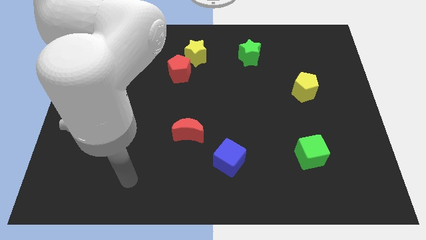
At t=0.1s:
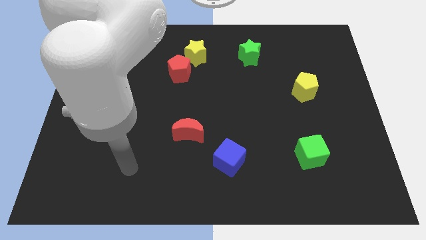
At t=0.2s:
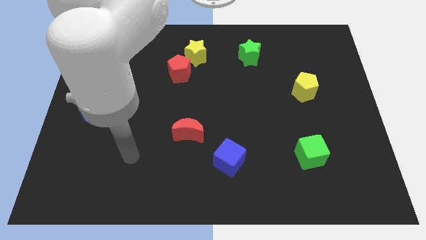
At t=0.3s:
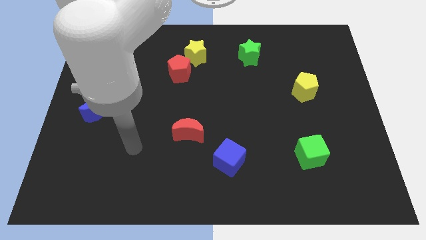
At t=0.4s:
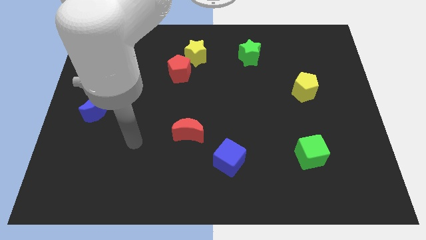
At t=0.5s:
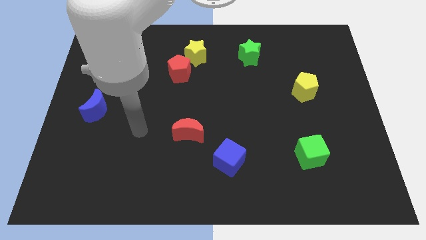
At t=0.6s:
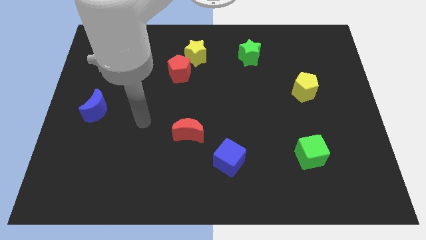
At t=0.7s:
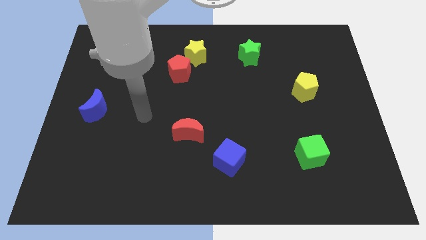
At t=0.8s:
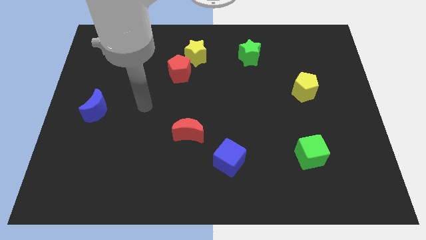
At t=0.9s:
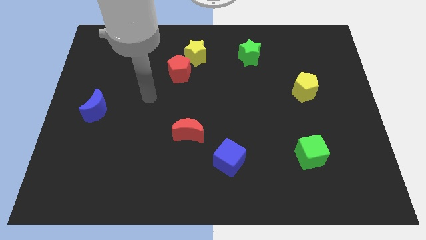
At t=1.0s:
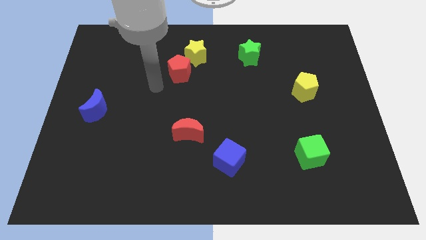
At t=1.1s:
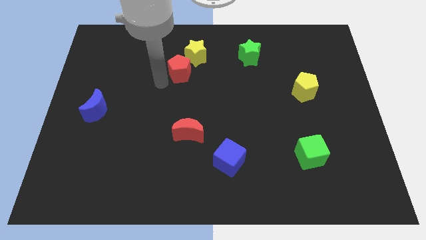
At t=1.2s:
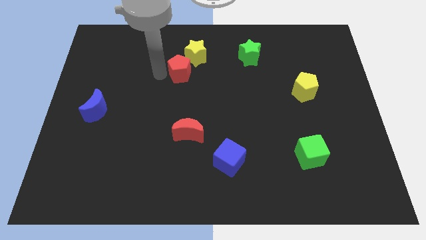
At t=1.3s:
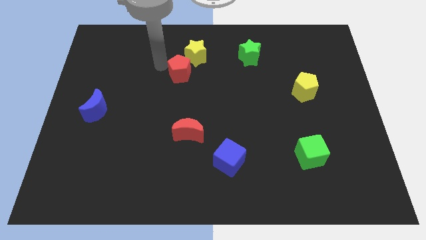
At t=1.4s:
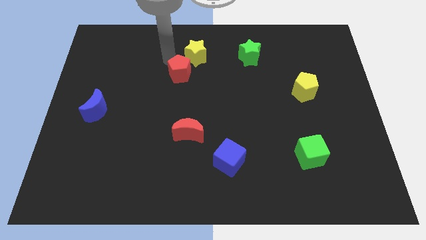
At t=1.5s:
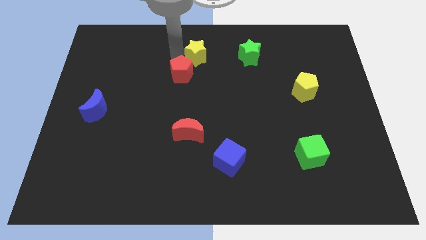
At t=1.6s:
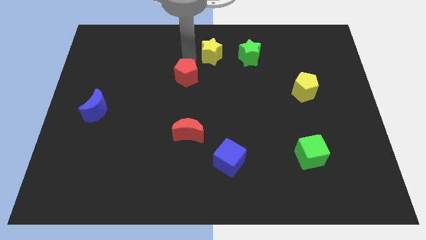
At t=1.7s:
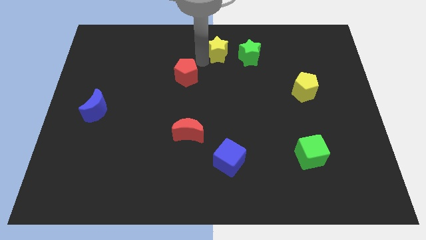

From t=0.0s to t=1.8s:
move the red pentagon away from the yellow star

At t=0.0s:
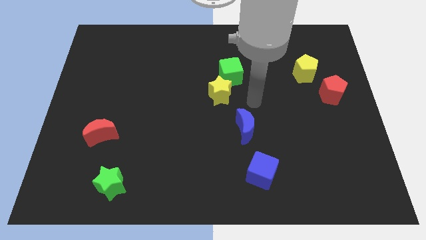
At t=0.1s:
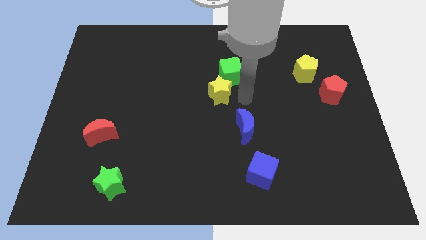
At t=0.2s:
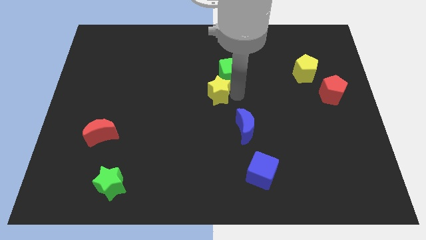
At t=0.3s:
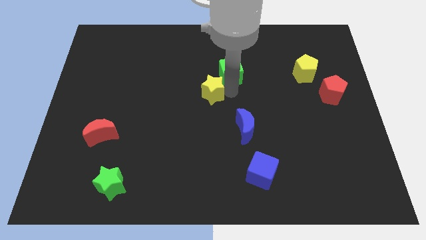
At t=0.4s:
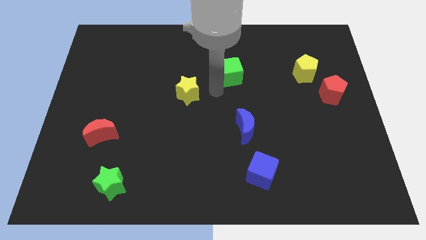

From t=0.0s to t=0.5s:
separate the green cube from the yellow star

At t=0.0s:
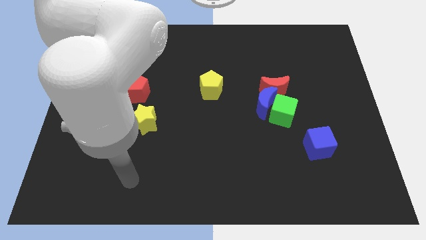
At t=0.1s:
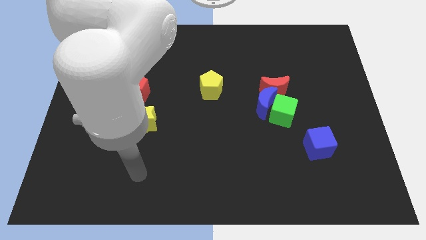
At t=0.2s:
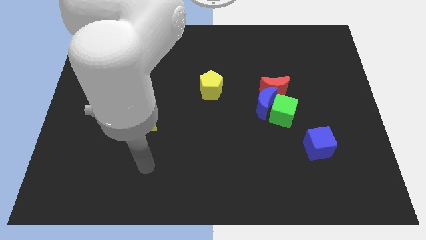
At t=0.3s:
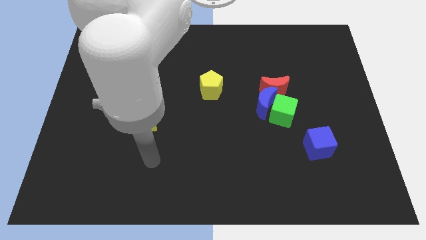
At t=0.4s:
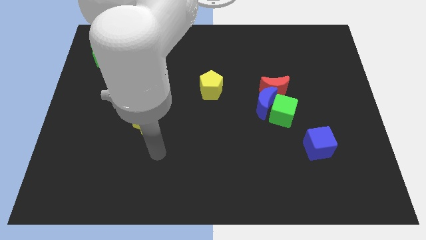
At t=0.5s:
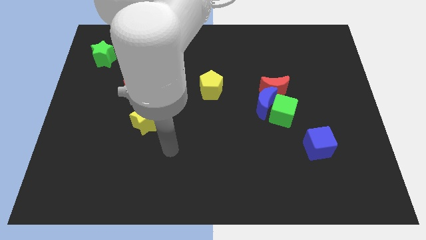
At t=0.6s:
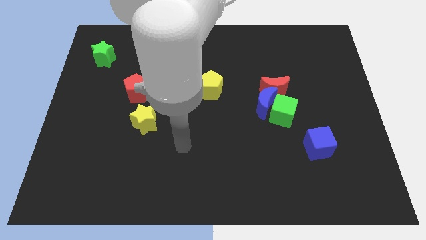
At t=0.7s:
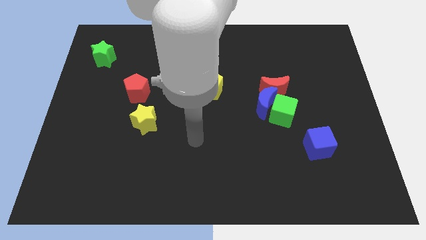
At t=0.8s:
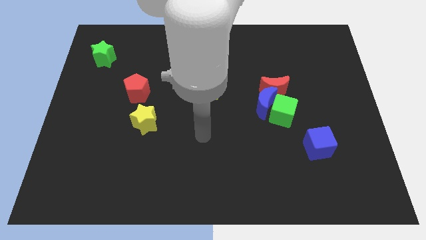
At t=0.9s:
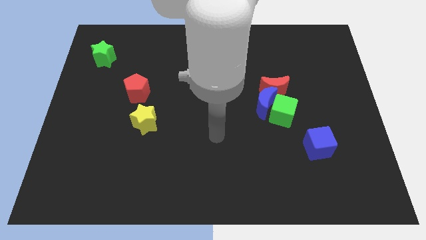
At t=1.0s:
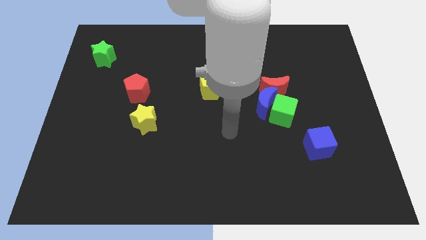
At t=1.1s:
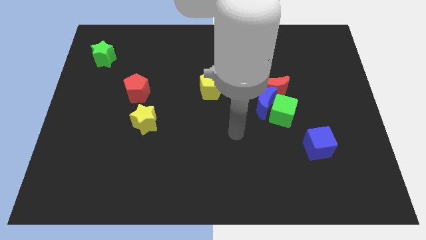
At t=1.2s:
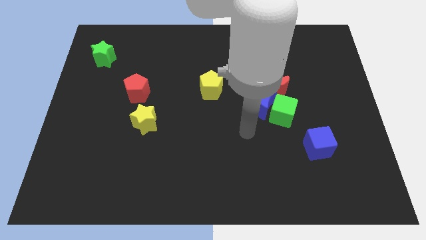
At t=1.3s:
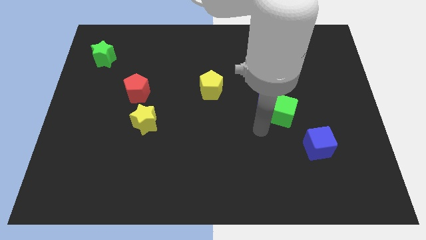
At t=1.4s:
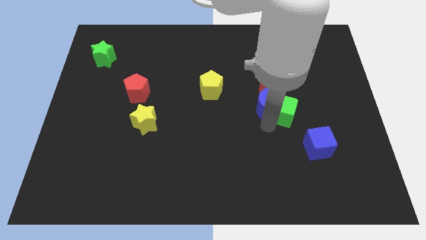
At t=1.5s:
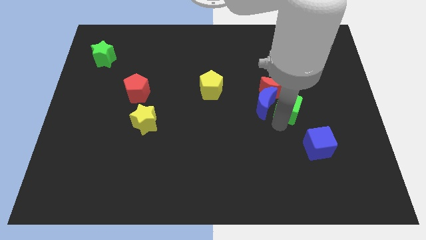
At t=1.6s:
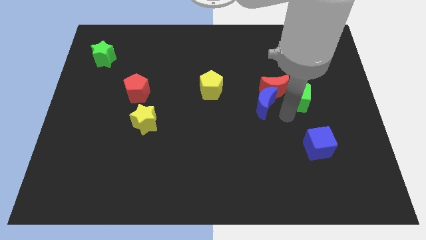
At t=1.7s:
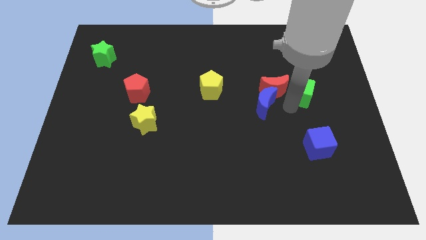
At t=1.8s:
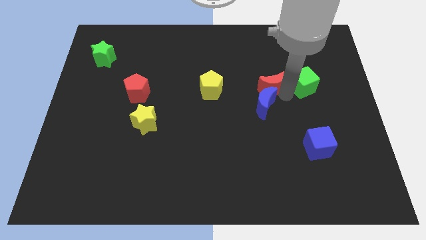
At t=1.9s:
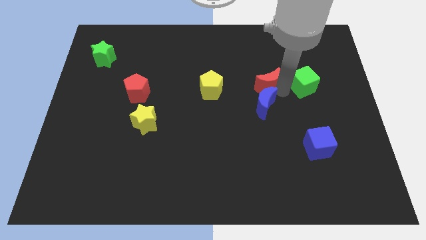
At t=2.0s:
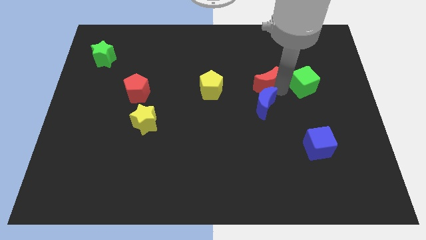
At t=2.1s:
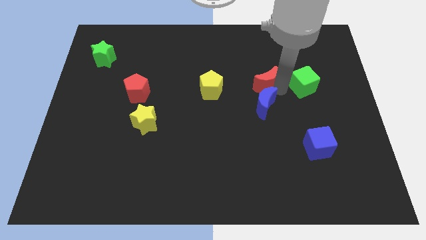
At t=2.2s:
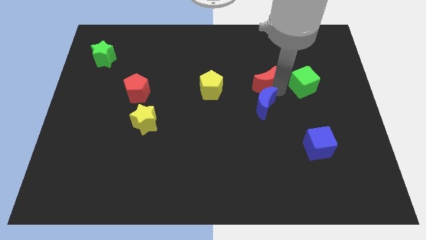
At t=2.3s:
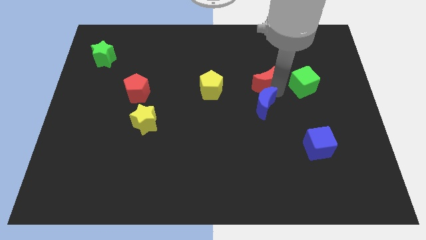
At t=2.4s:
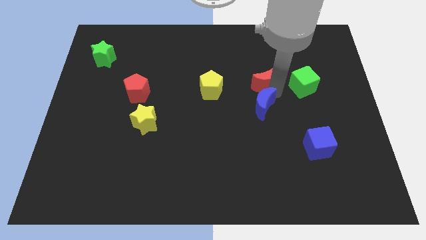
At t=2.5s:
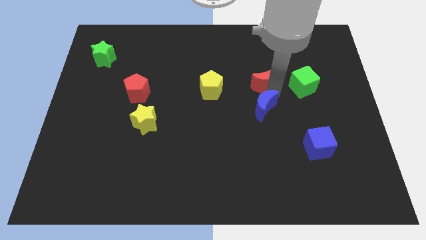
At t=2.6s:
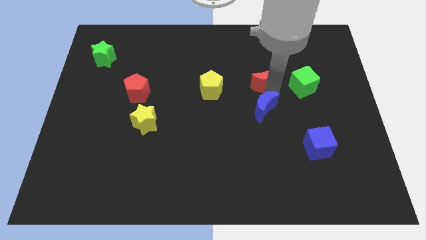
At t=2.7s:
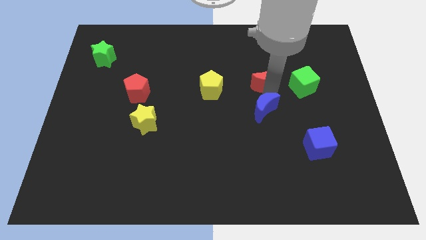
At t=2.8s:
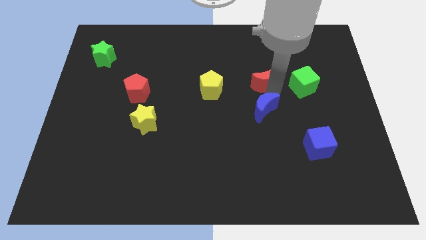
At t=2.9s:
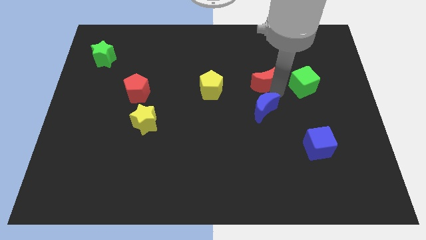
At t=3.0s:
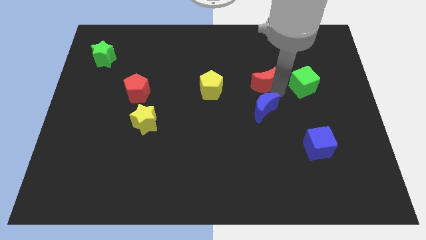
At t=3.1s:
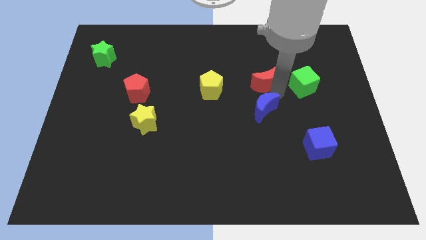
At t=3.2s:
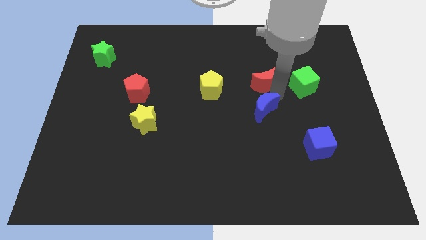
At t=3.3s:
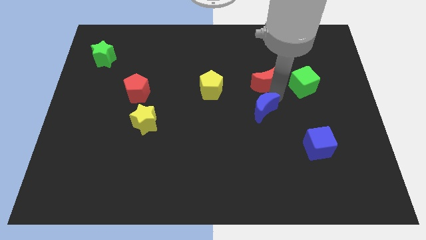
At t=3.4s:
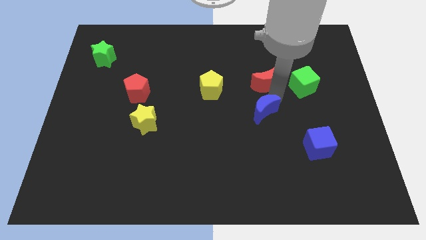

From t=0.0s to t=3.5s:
separate the blue moon from the green cube and red moon

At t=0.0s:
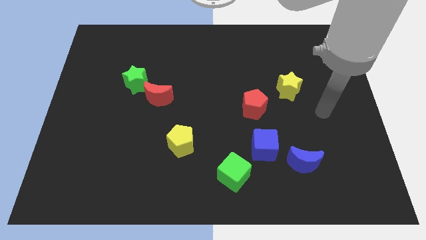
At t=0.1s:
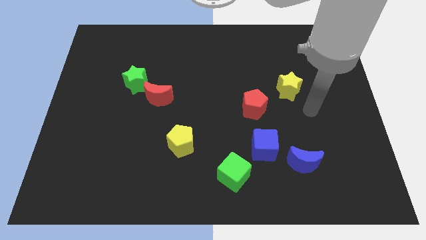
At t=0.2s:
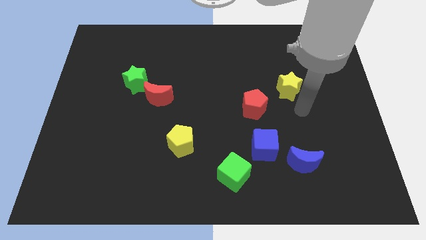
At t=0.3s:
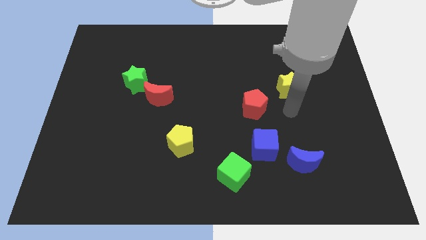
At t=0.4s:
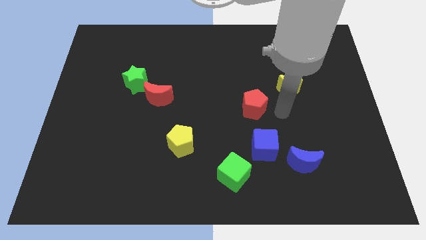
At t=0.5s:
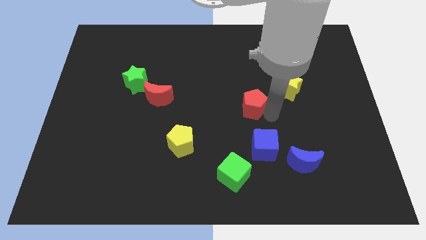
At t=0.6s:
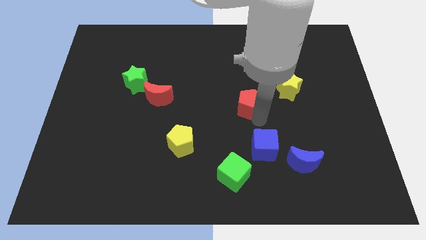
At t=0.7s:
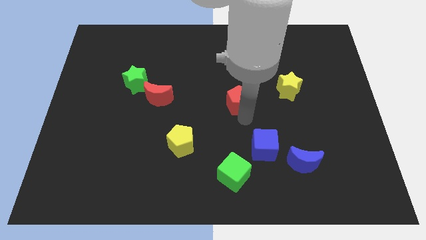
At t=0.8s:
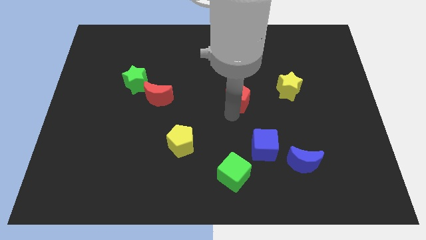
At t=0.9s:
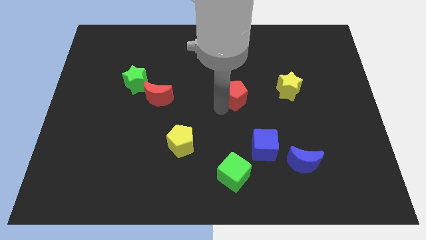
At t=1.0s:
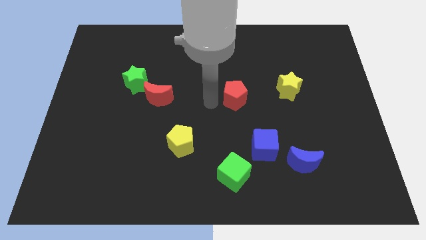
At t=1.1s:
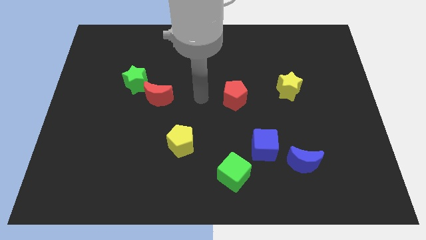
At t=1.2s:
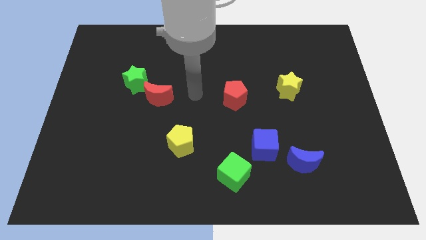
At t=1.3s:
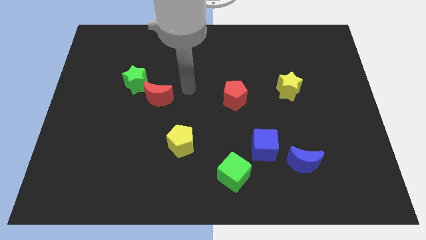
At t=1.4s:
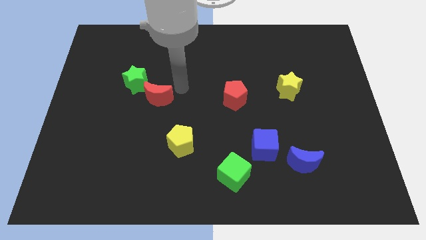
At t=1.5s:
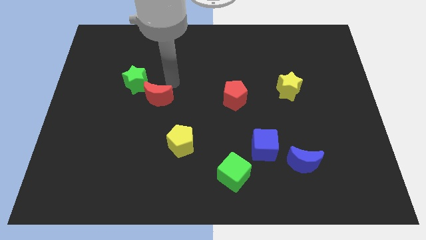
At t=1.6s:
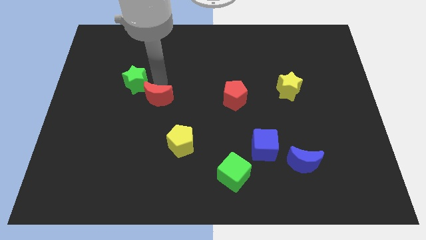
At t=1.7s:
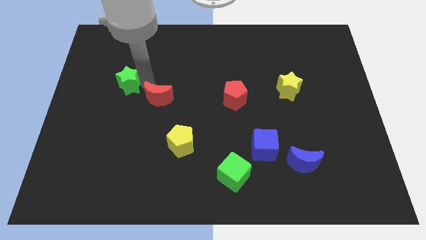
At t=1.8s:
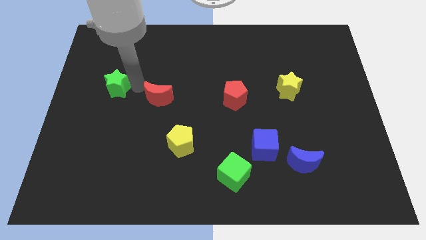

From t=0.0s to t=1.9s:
move the red moon away from the green star

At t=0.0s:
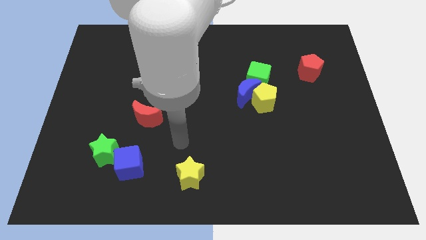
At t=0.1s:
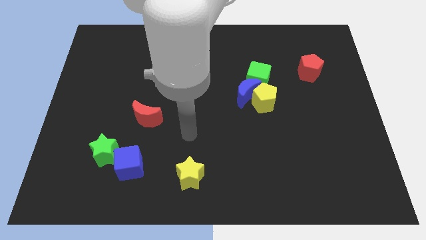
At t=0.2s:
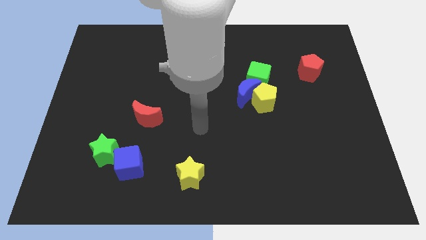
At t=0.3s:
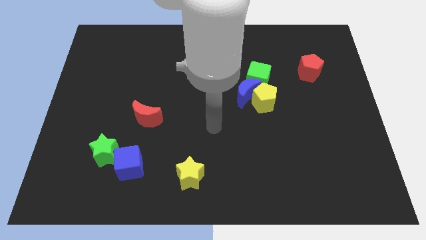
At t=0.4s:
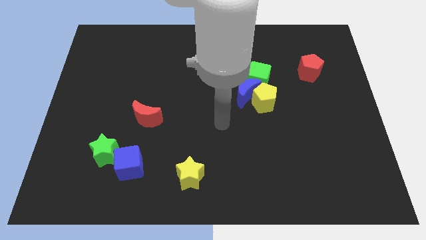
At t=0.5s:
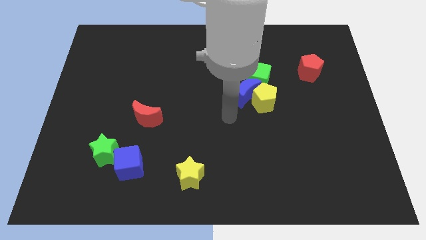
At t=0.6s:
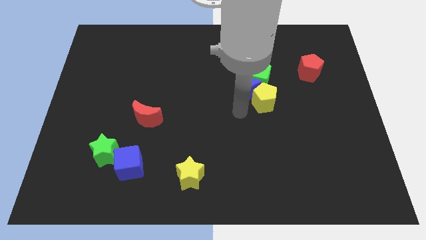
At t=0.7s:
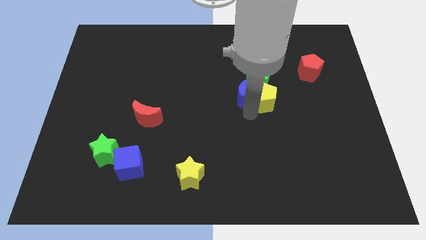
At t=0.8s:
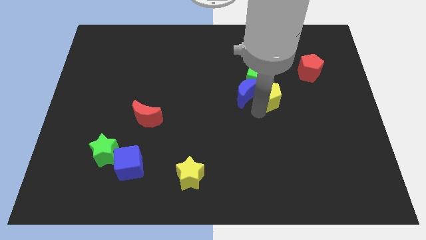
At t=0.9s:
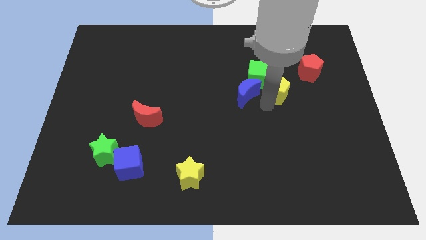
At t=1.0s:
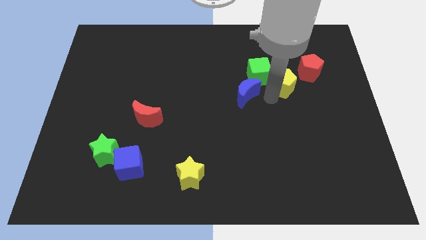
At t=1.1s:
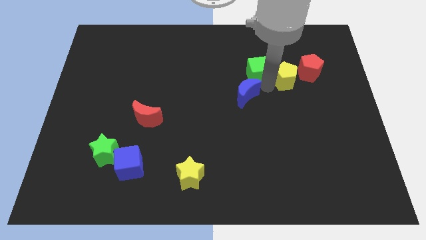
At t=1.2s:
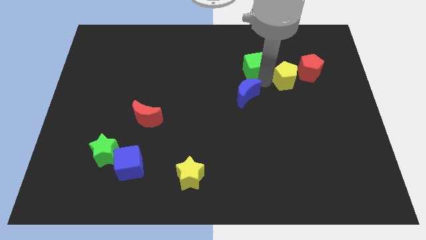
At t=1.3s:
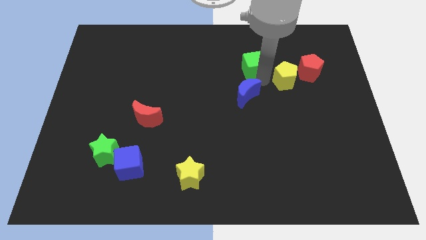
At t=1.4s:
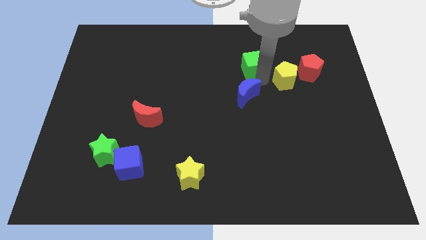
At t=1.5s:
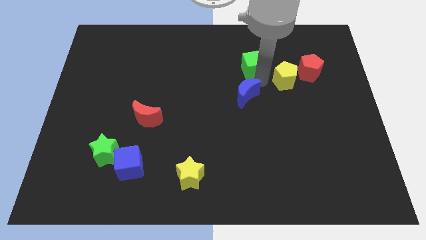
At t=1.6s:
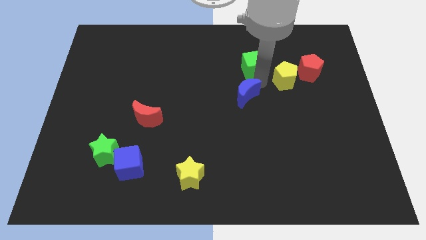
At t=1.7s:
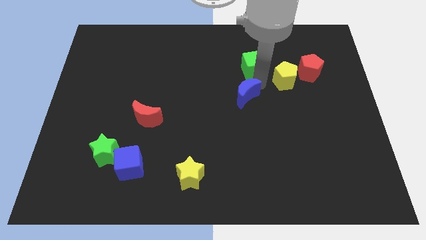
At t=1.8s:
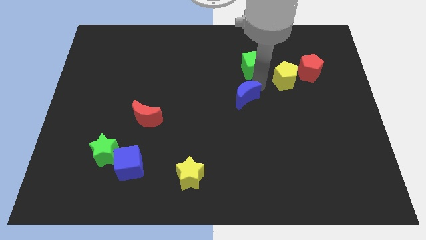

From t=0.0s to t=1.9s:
separate the blue moon from the yellow pentagon and green cube
